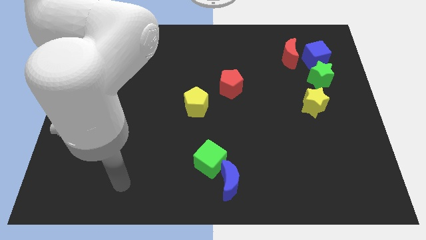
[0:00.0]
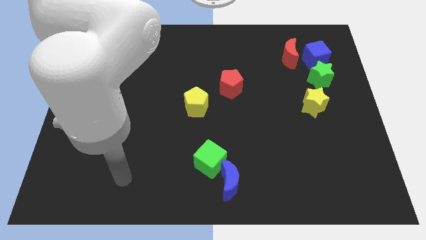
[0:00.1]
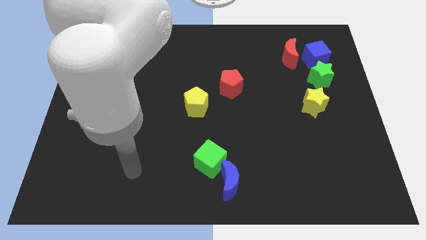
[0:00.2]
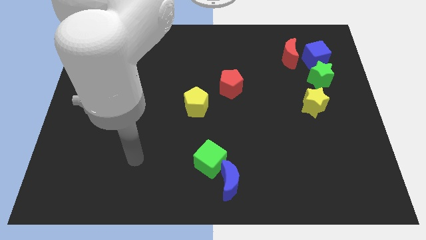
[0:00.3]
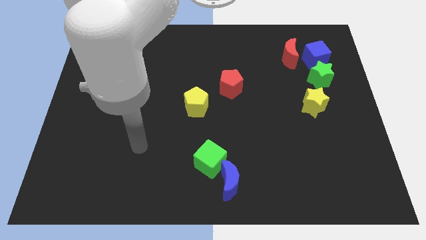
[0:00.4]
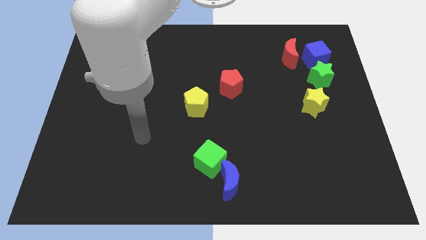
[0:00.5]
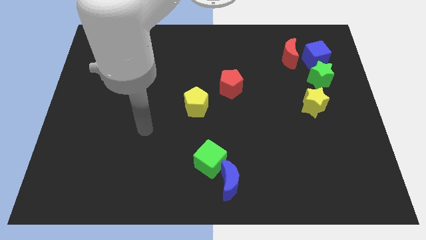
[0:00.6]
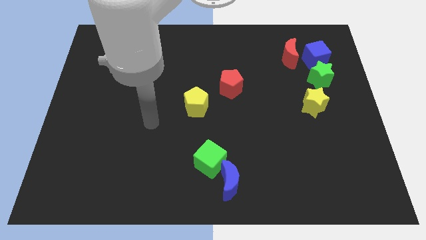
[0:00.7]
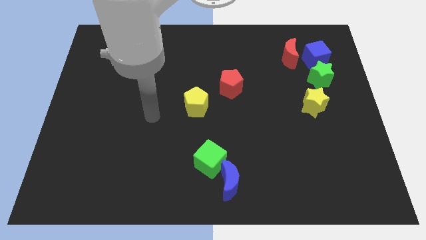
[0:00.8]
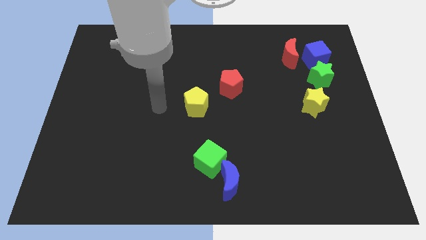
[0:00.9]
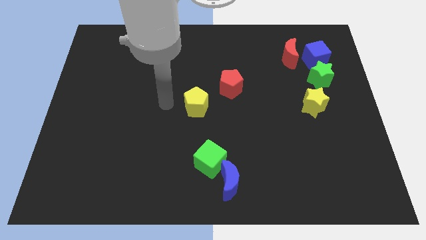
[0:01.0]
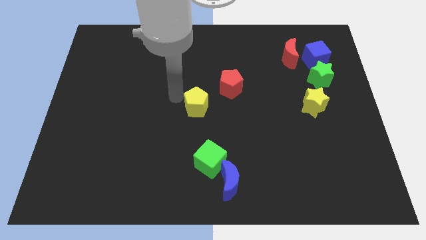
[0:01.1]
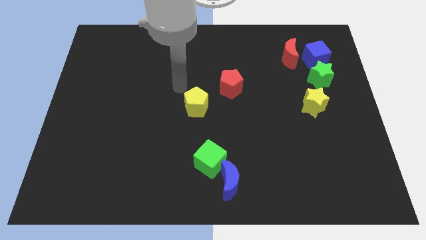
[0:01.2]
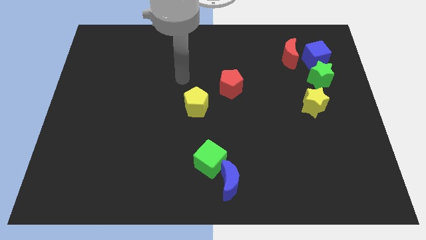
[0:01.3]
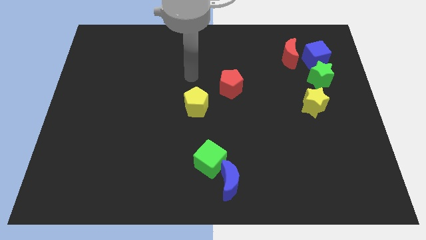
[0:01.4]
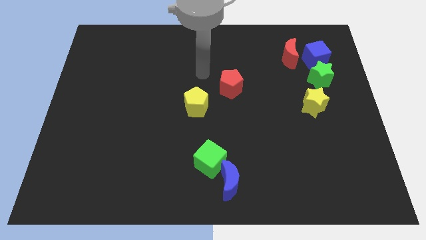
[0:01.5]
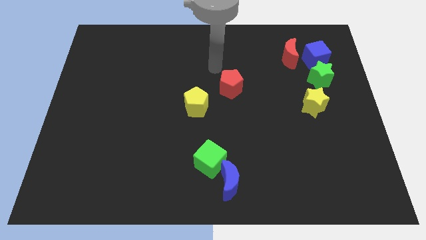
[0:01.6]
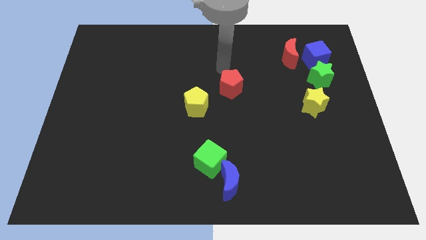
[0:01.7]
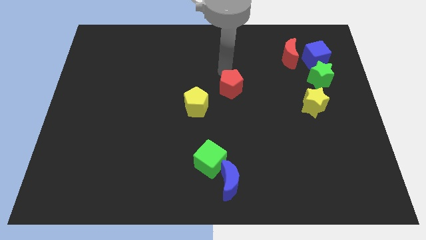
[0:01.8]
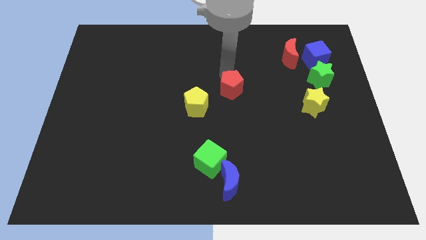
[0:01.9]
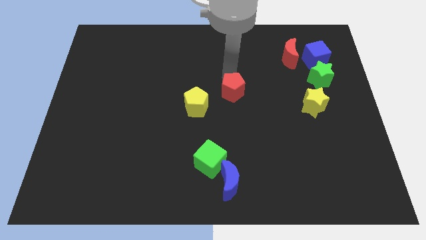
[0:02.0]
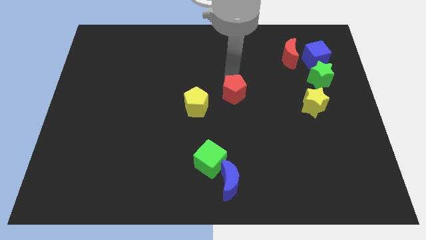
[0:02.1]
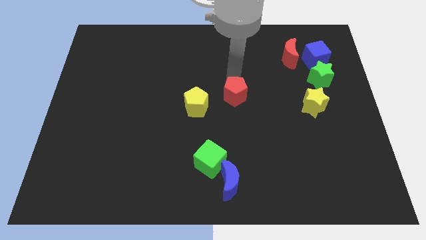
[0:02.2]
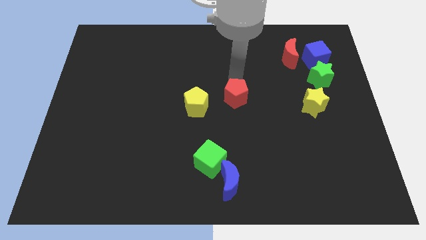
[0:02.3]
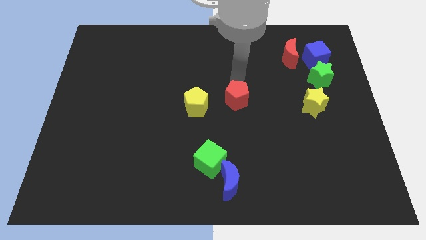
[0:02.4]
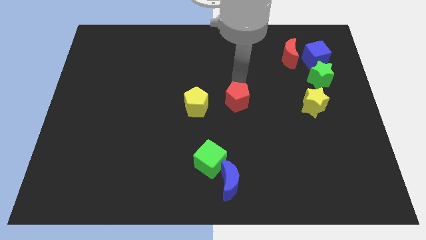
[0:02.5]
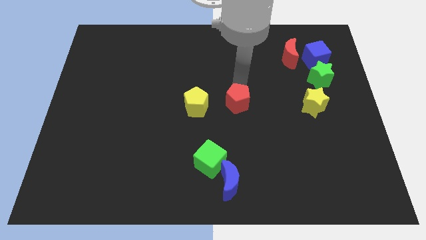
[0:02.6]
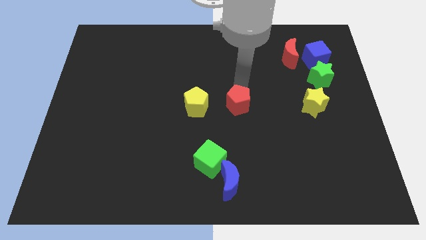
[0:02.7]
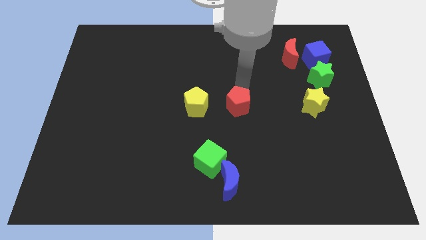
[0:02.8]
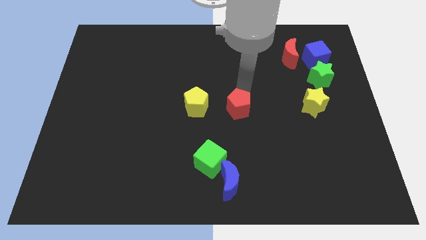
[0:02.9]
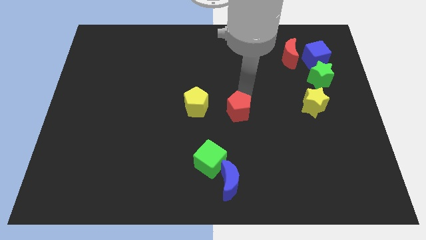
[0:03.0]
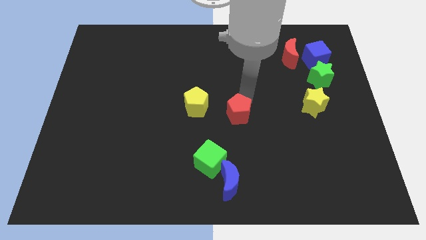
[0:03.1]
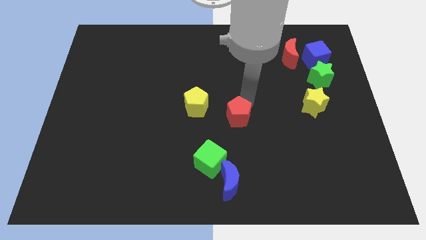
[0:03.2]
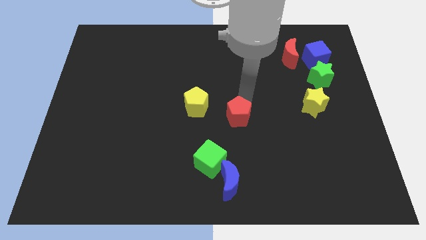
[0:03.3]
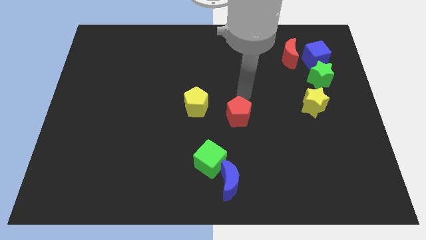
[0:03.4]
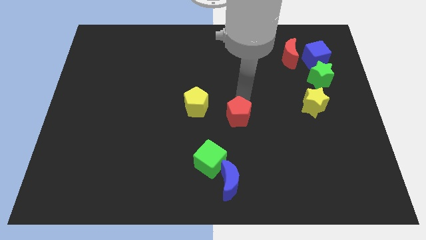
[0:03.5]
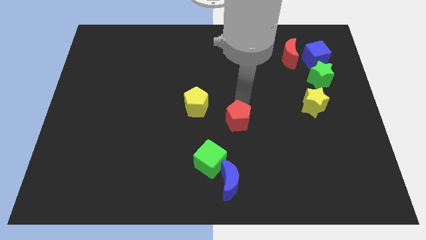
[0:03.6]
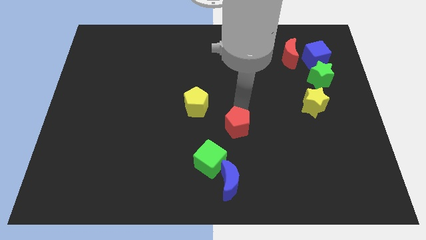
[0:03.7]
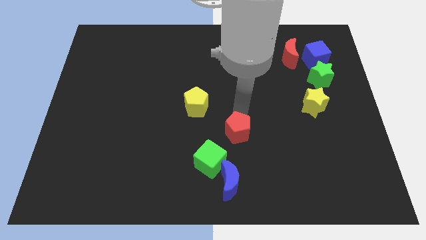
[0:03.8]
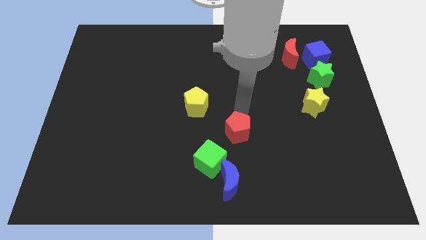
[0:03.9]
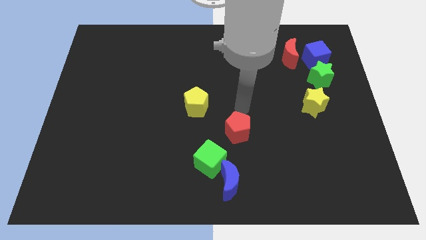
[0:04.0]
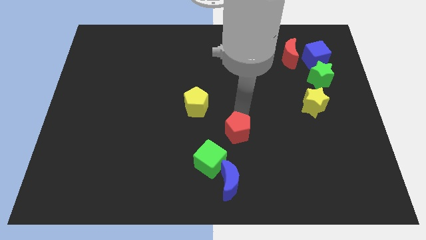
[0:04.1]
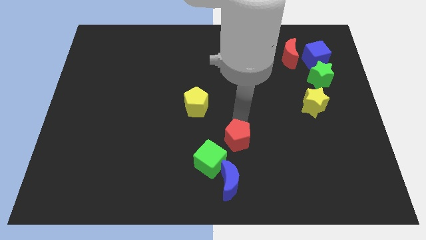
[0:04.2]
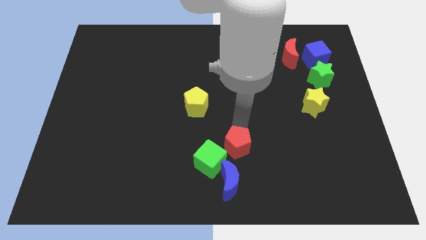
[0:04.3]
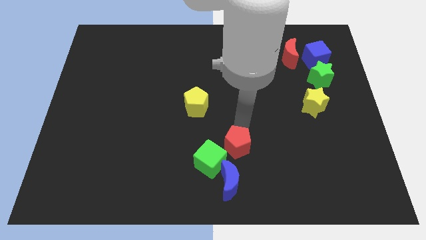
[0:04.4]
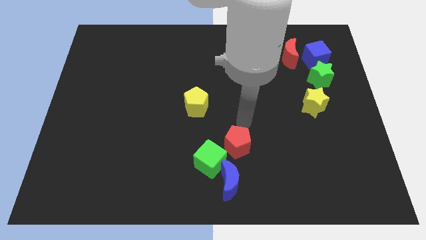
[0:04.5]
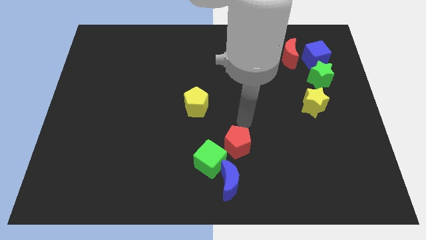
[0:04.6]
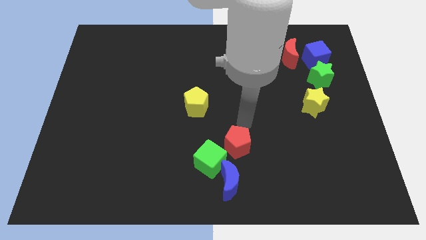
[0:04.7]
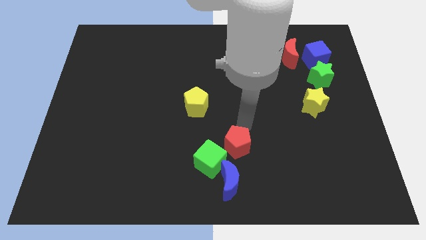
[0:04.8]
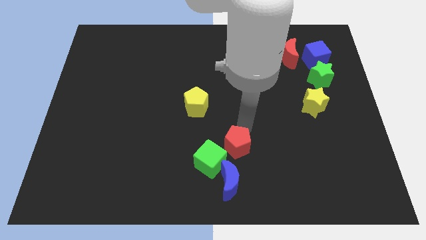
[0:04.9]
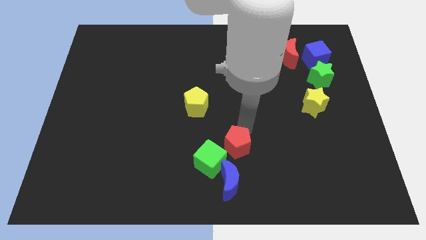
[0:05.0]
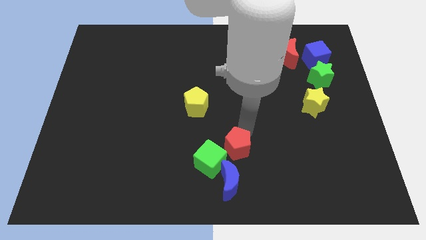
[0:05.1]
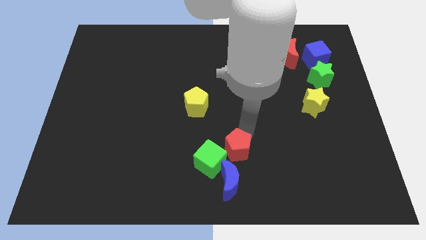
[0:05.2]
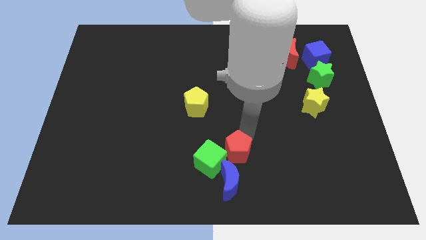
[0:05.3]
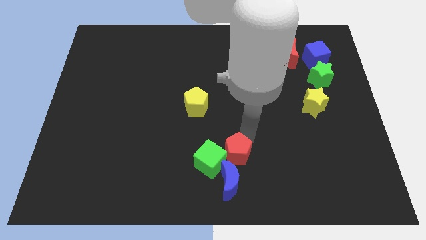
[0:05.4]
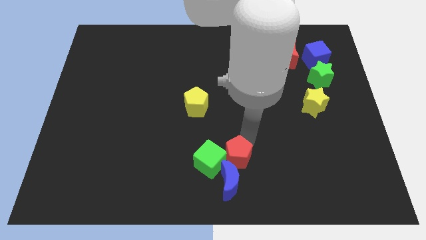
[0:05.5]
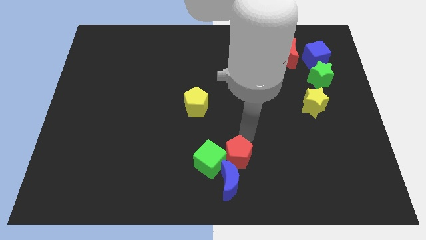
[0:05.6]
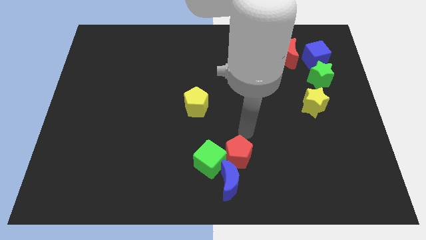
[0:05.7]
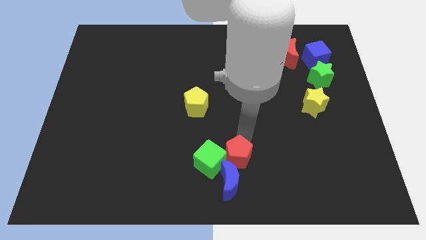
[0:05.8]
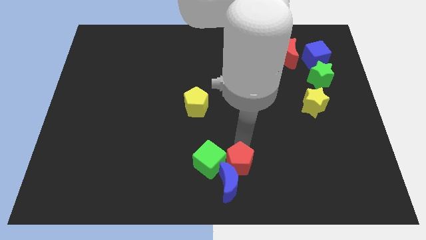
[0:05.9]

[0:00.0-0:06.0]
move the red pentagon close to the blue moon
